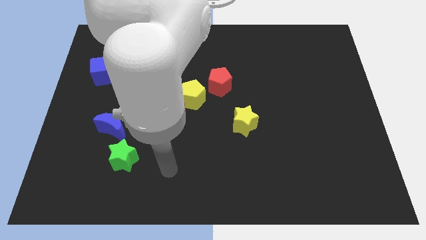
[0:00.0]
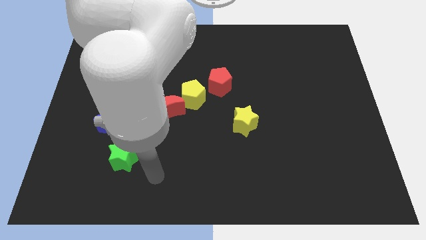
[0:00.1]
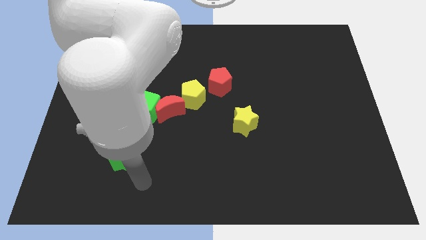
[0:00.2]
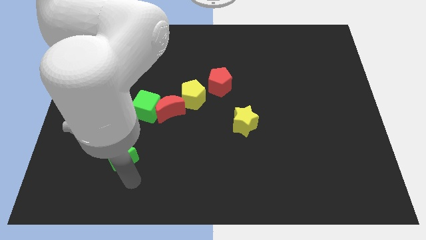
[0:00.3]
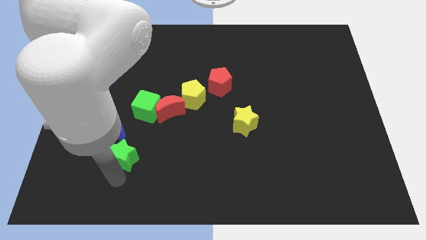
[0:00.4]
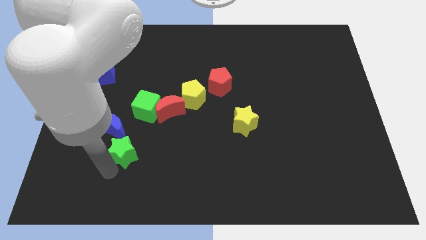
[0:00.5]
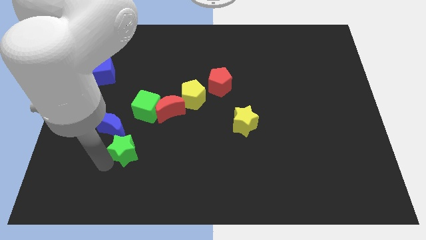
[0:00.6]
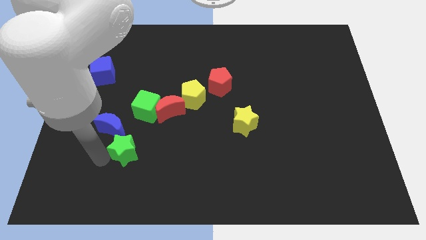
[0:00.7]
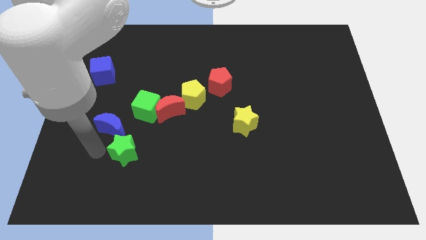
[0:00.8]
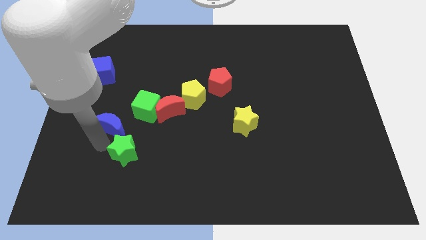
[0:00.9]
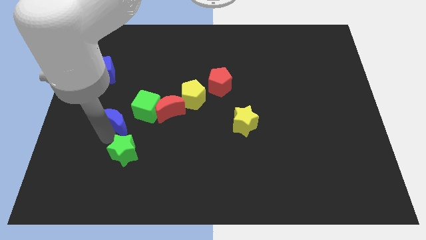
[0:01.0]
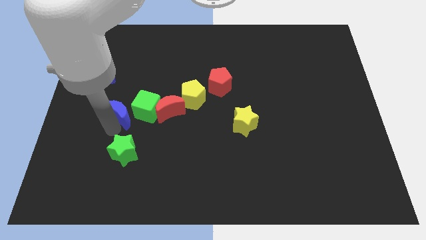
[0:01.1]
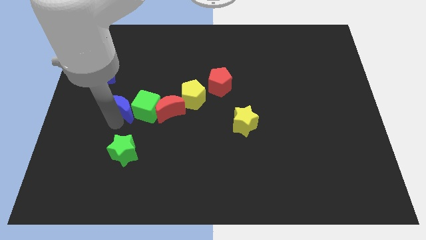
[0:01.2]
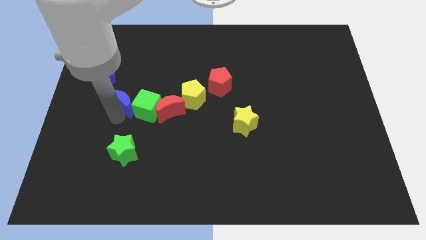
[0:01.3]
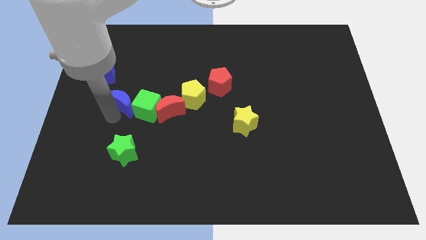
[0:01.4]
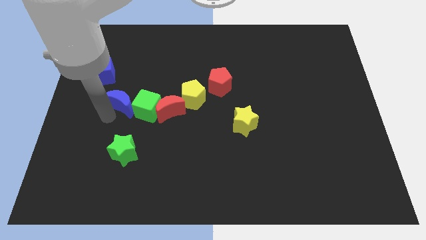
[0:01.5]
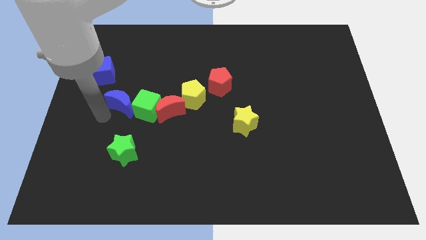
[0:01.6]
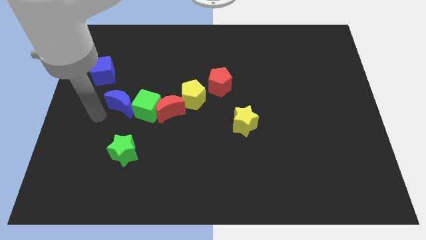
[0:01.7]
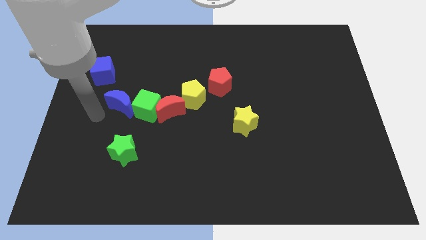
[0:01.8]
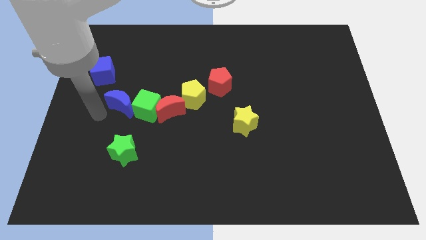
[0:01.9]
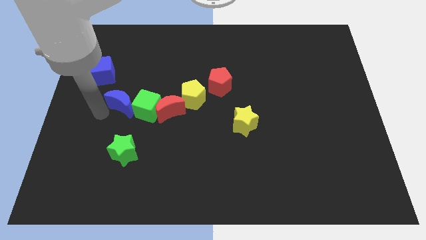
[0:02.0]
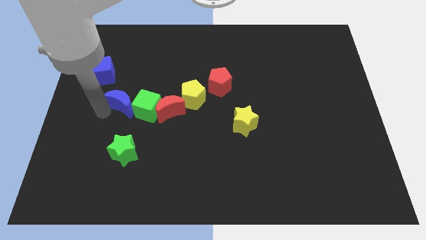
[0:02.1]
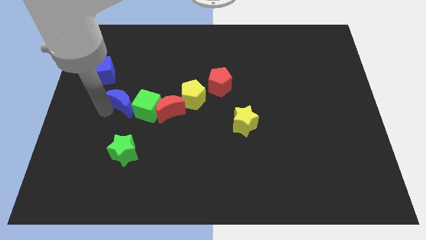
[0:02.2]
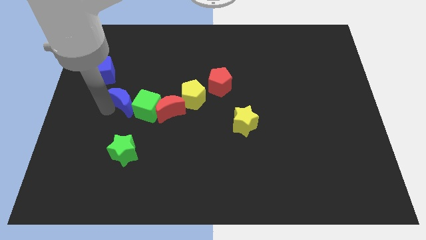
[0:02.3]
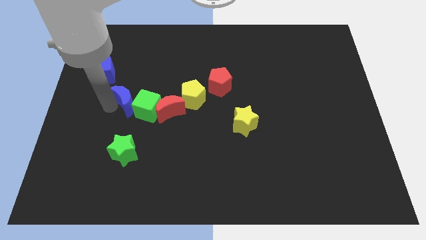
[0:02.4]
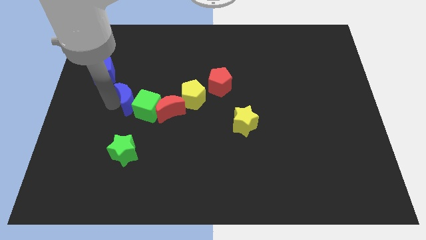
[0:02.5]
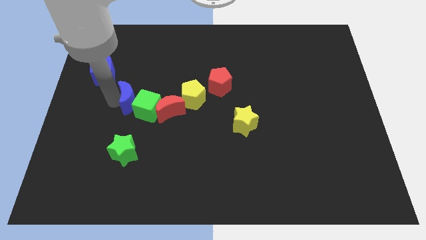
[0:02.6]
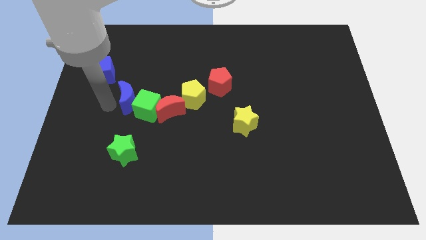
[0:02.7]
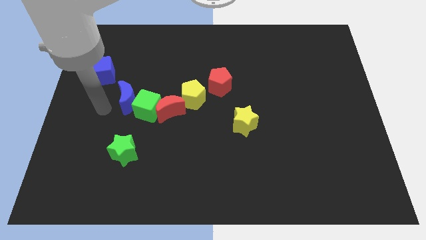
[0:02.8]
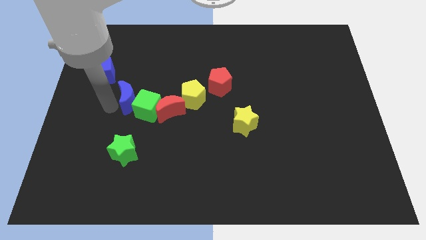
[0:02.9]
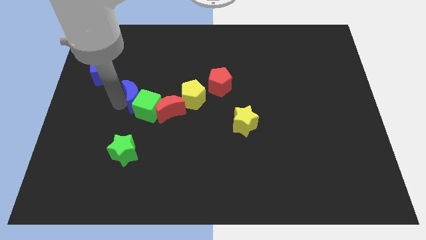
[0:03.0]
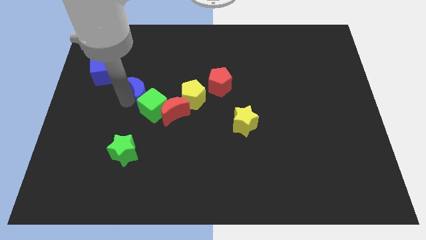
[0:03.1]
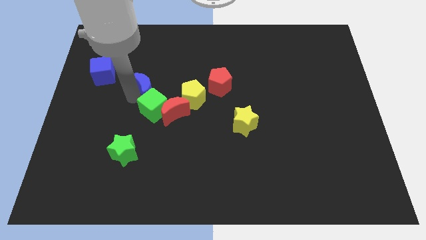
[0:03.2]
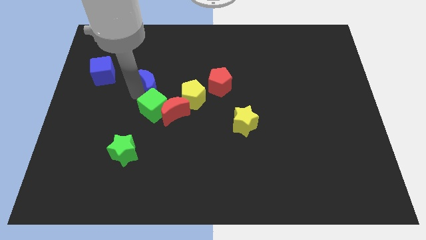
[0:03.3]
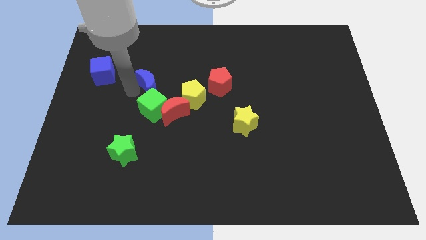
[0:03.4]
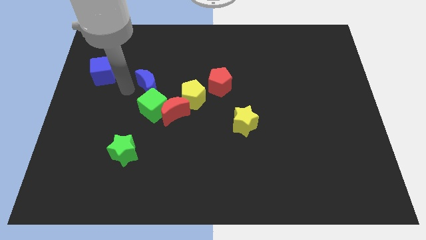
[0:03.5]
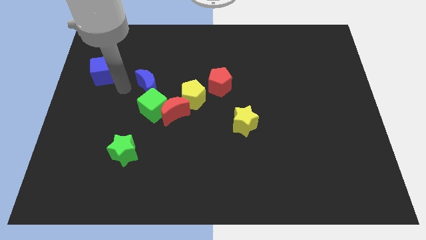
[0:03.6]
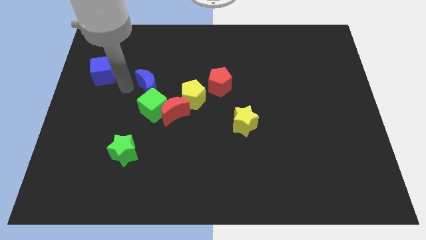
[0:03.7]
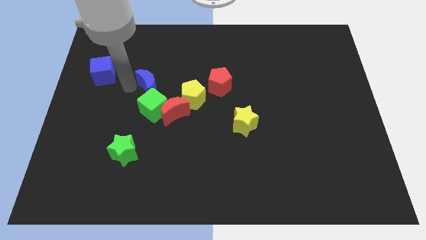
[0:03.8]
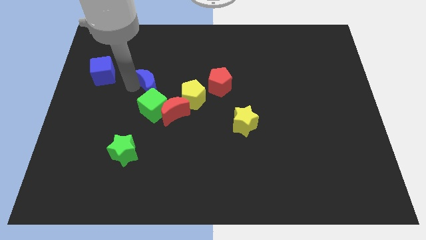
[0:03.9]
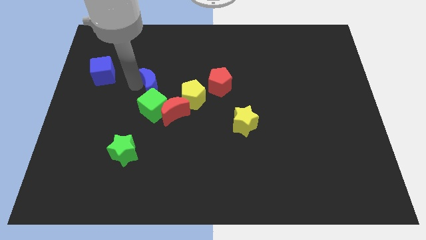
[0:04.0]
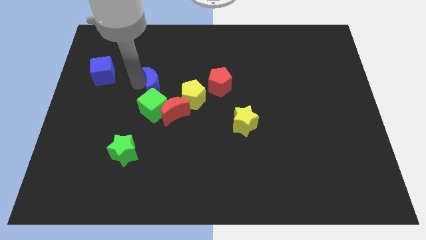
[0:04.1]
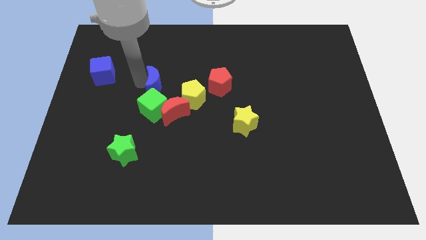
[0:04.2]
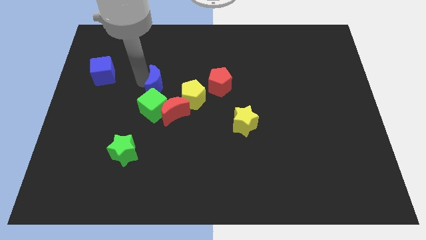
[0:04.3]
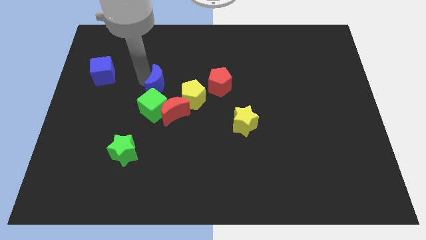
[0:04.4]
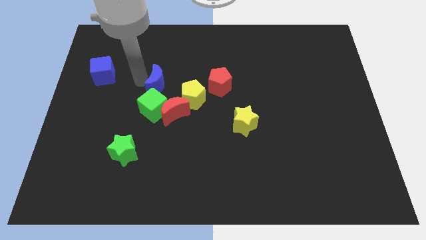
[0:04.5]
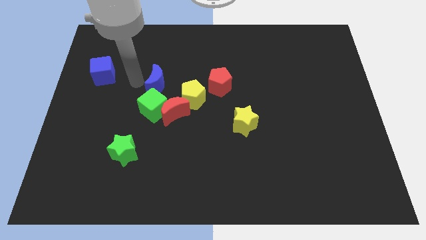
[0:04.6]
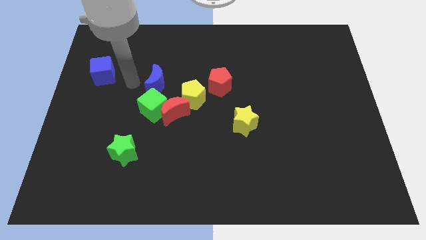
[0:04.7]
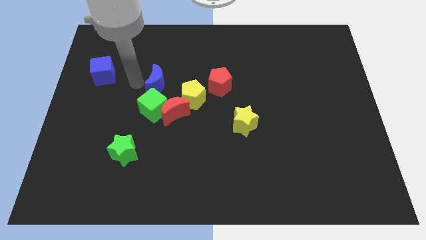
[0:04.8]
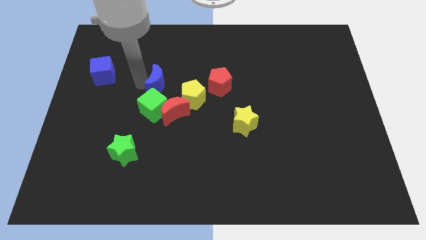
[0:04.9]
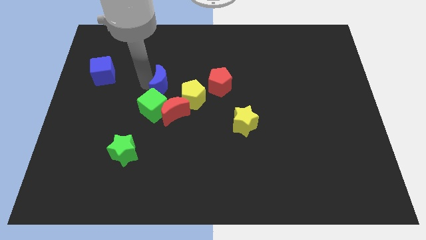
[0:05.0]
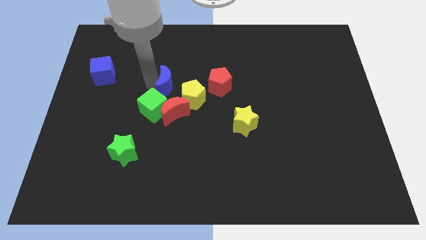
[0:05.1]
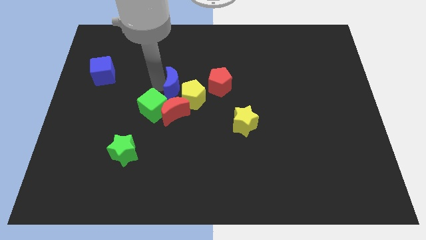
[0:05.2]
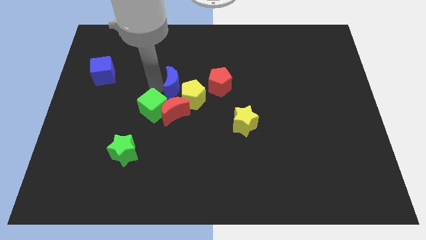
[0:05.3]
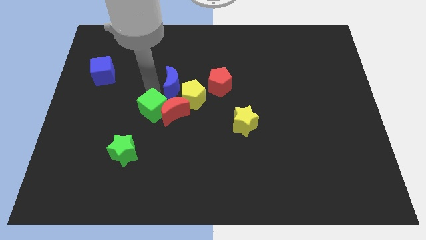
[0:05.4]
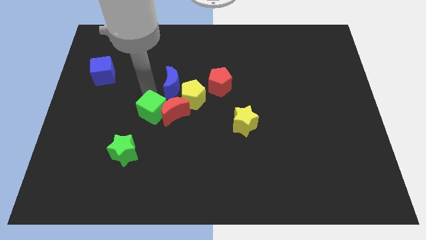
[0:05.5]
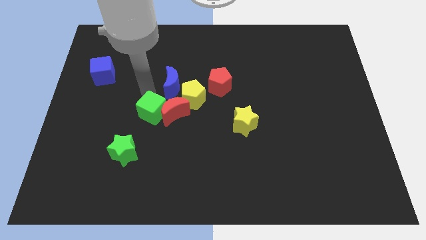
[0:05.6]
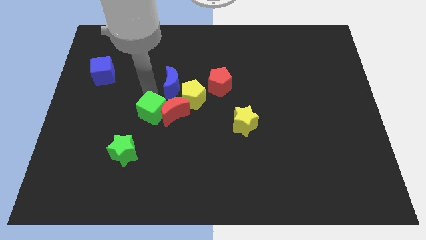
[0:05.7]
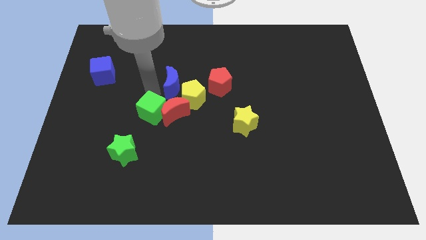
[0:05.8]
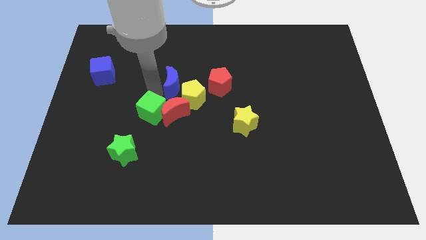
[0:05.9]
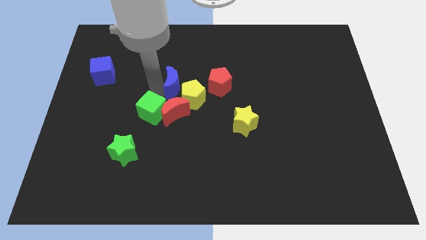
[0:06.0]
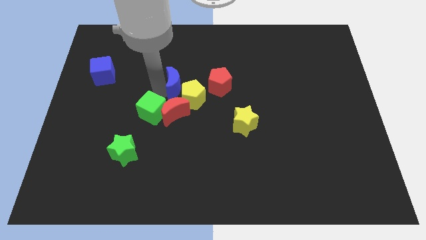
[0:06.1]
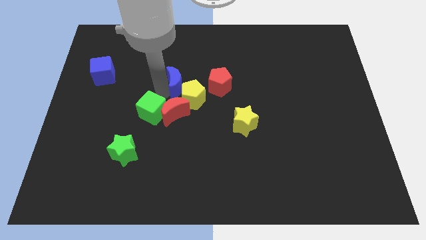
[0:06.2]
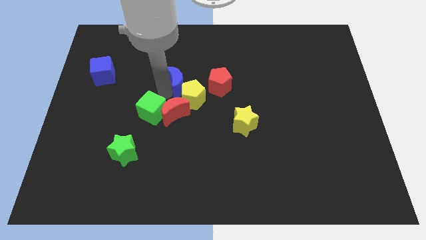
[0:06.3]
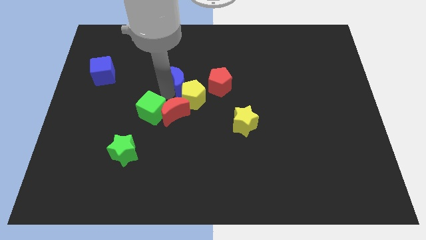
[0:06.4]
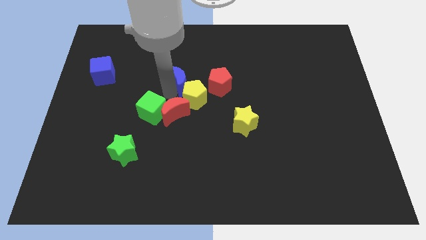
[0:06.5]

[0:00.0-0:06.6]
move the blue moon up and then to the right

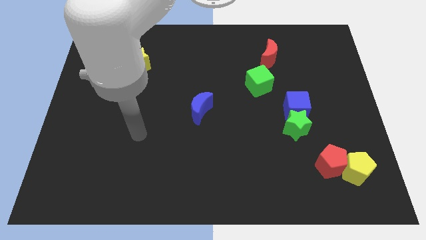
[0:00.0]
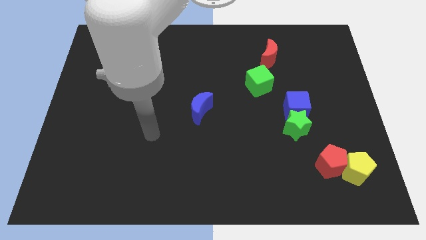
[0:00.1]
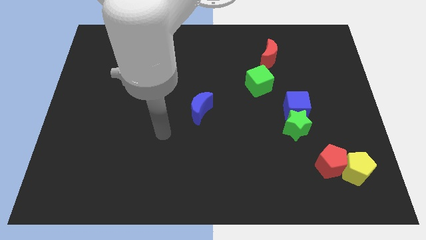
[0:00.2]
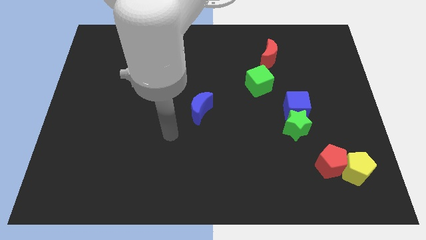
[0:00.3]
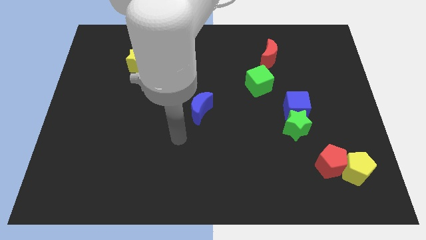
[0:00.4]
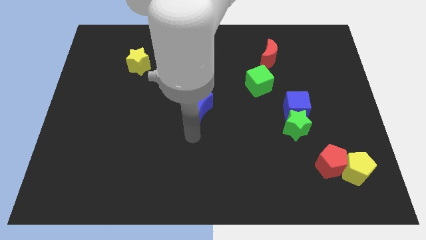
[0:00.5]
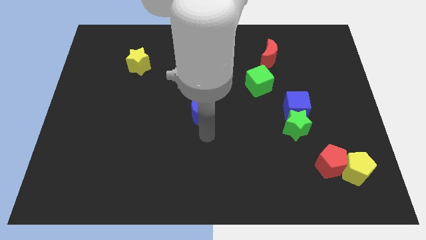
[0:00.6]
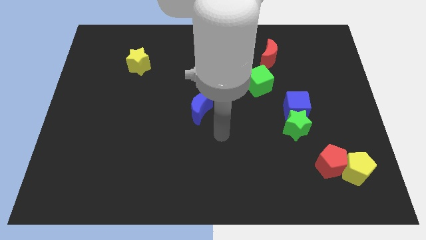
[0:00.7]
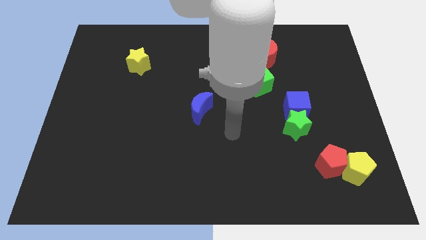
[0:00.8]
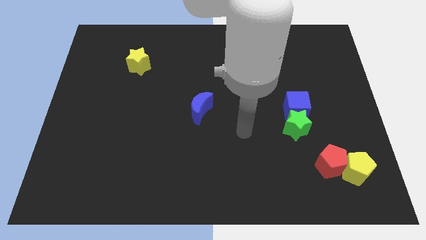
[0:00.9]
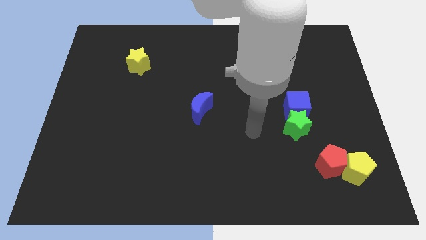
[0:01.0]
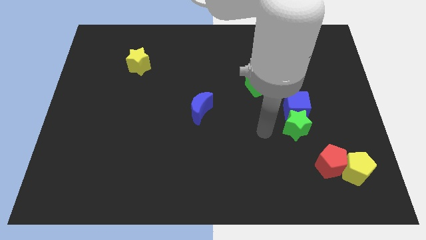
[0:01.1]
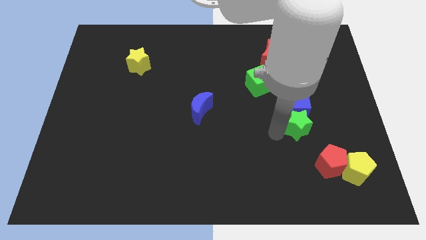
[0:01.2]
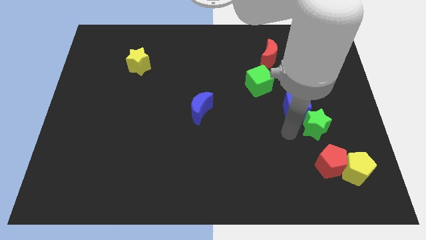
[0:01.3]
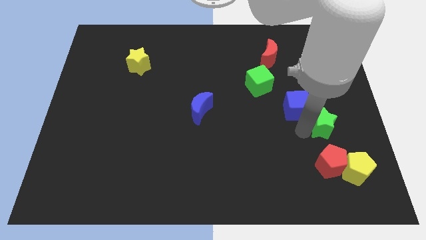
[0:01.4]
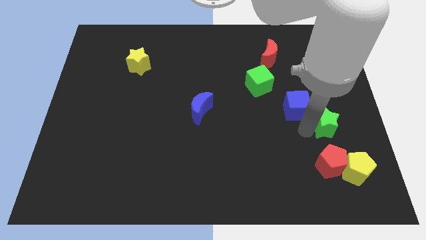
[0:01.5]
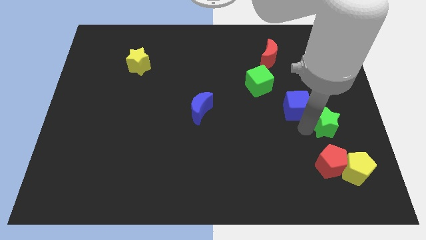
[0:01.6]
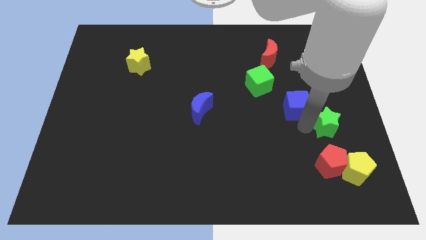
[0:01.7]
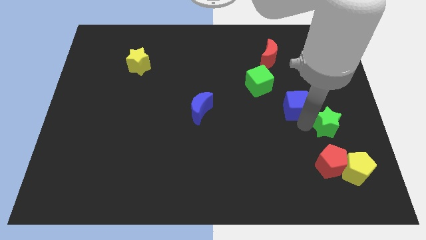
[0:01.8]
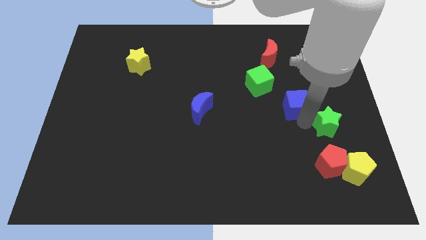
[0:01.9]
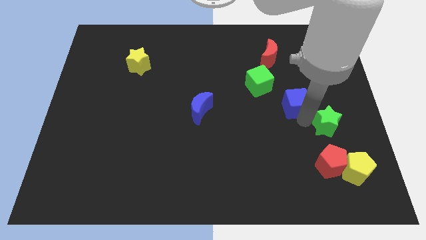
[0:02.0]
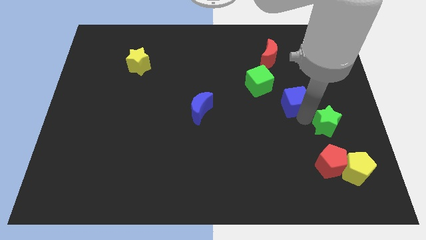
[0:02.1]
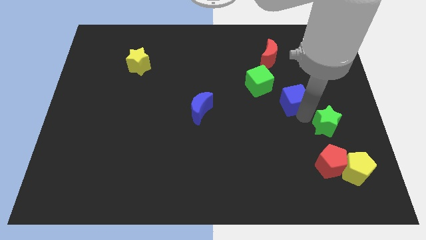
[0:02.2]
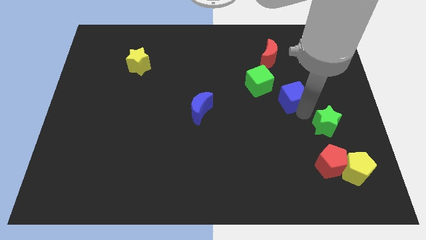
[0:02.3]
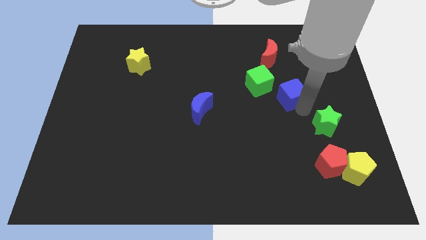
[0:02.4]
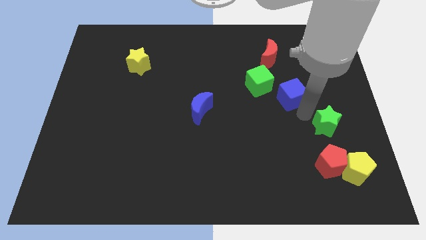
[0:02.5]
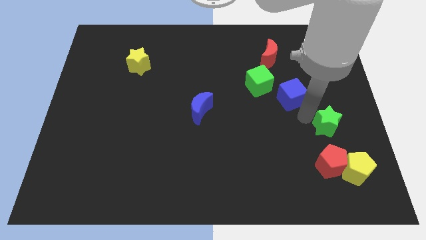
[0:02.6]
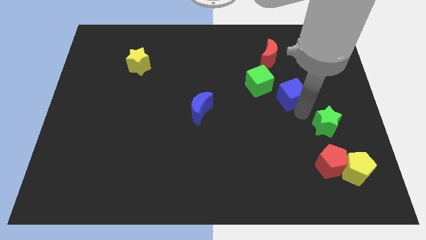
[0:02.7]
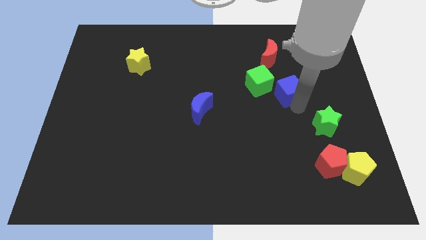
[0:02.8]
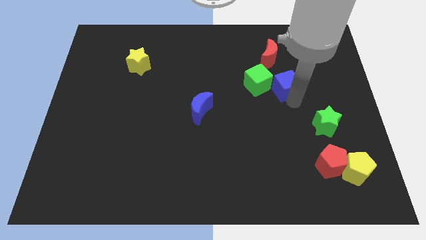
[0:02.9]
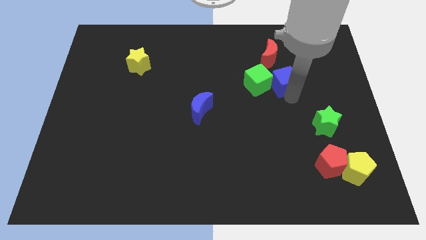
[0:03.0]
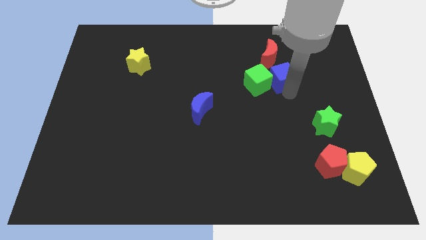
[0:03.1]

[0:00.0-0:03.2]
slightly slide the blue cube up and then left
